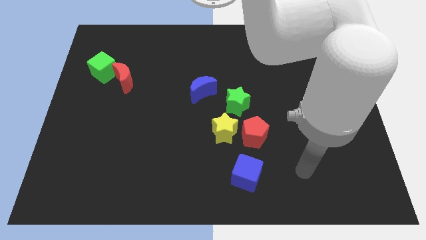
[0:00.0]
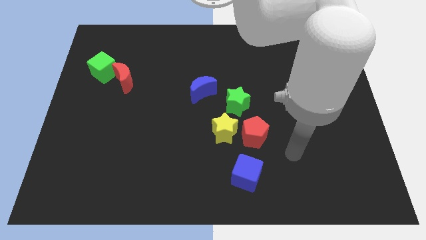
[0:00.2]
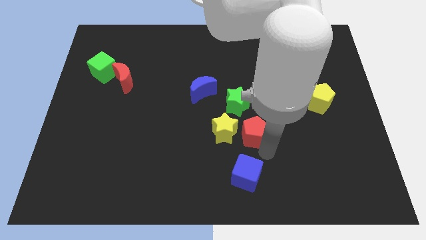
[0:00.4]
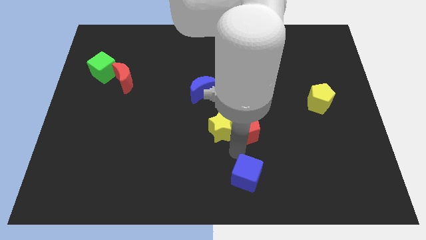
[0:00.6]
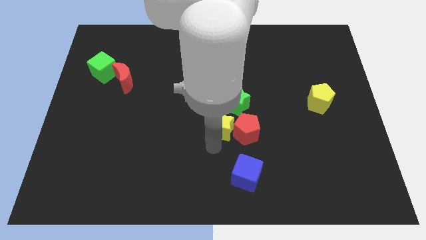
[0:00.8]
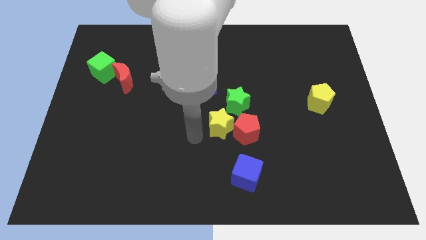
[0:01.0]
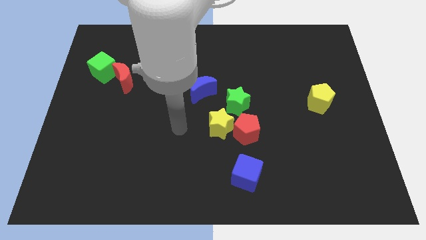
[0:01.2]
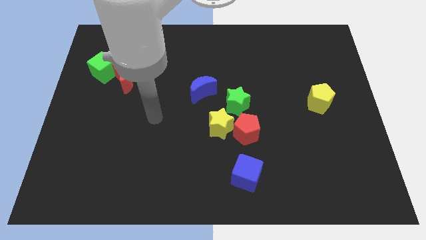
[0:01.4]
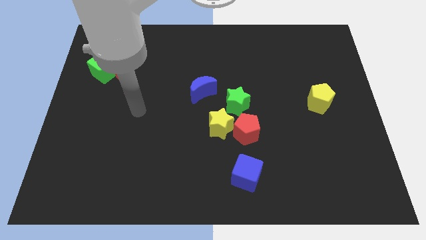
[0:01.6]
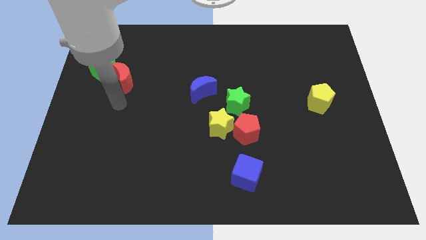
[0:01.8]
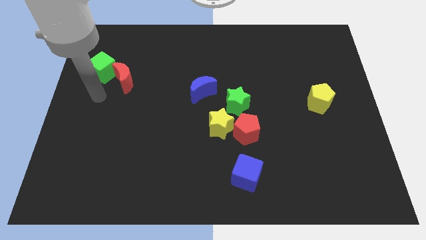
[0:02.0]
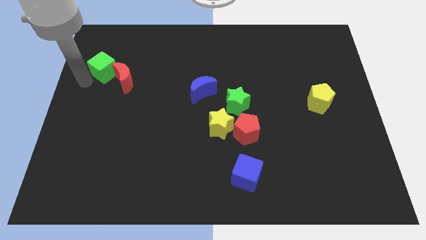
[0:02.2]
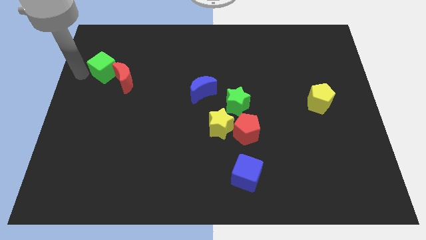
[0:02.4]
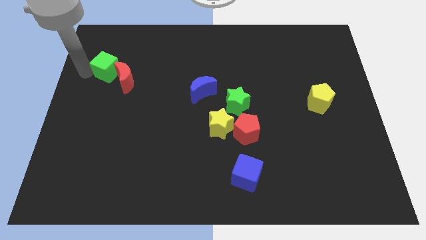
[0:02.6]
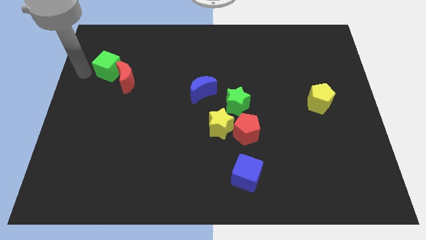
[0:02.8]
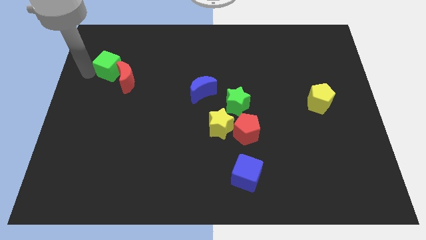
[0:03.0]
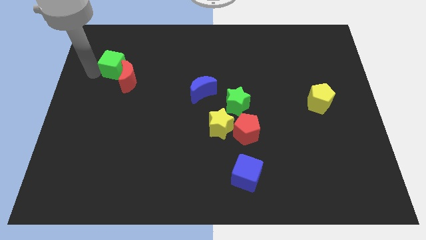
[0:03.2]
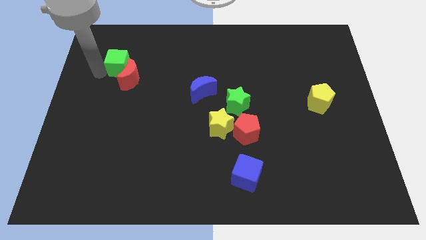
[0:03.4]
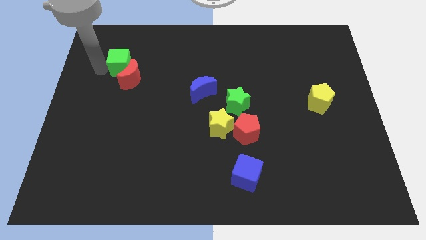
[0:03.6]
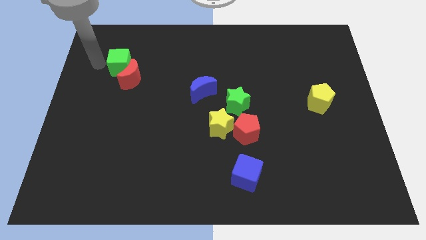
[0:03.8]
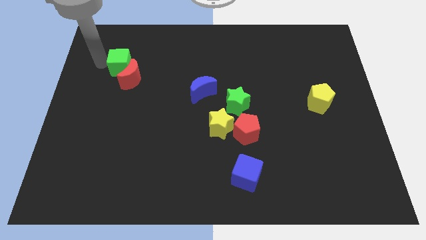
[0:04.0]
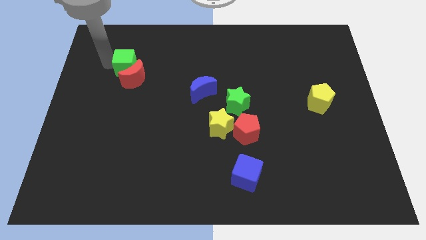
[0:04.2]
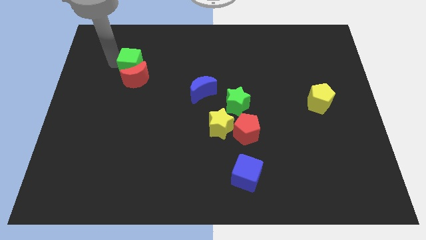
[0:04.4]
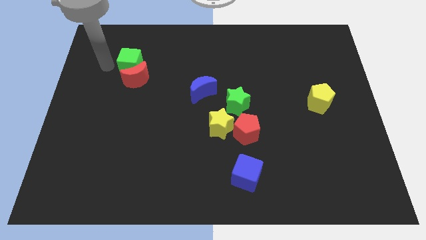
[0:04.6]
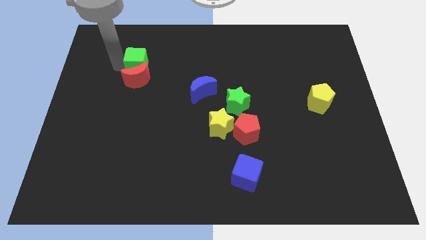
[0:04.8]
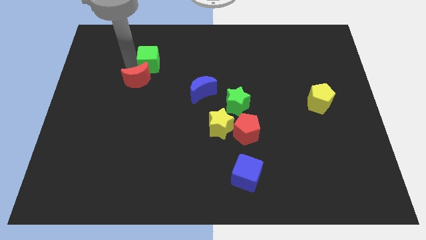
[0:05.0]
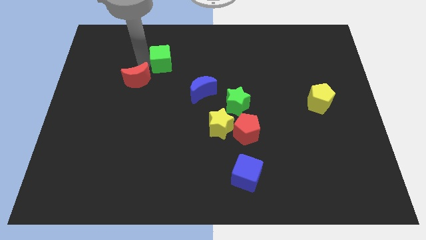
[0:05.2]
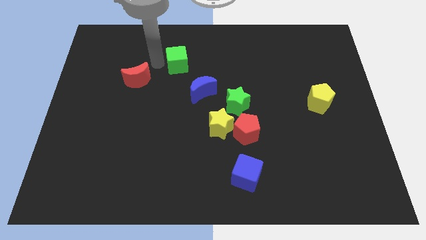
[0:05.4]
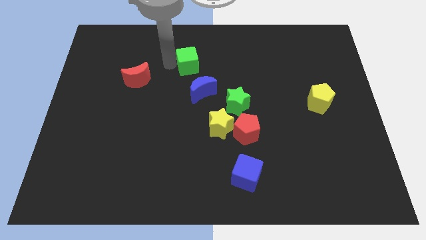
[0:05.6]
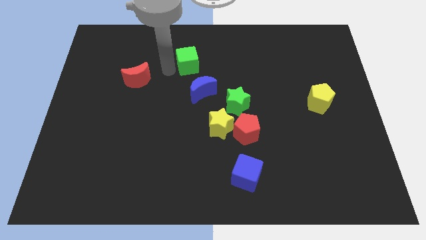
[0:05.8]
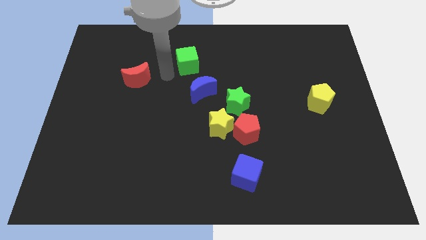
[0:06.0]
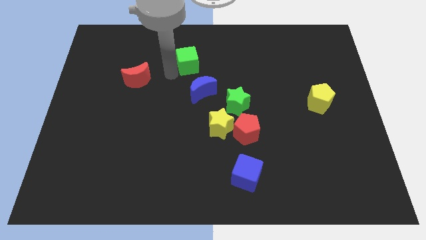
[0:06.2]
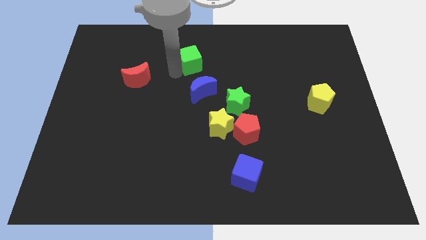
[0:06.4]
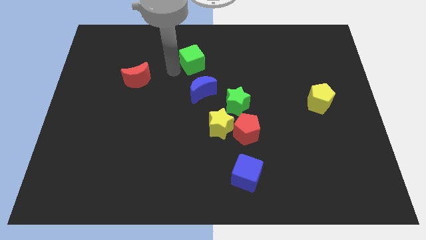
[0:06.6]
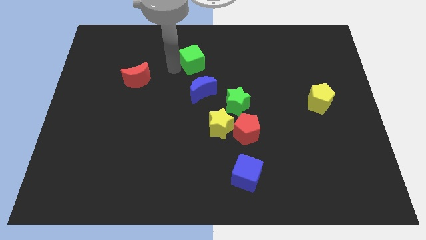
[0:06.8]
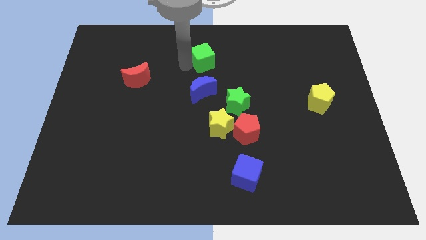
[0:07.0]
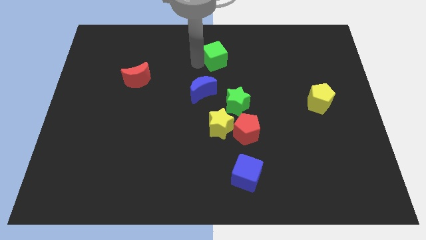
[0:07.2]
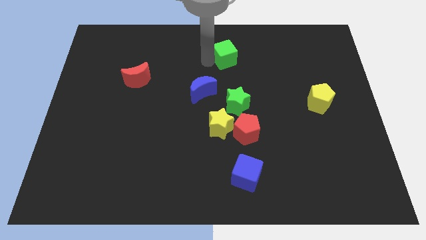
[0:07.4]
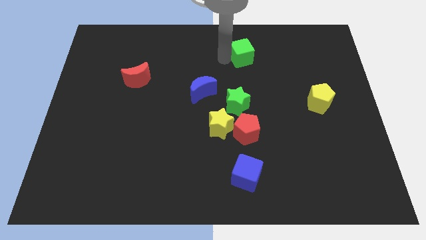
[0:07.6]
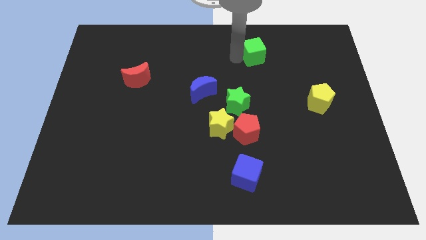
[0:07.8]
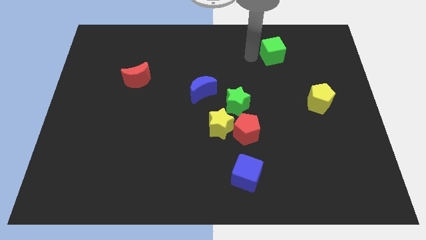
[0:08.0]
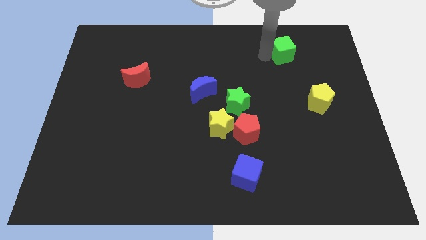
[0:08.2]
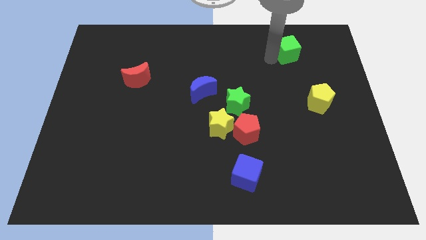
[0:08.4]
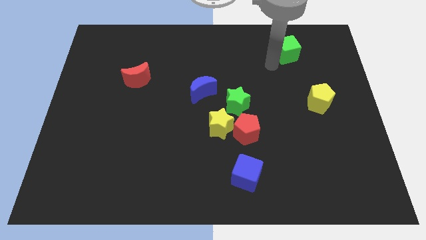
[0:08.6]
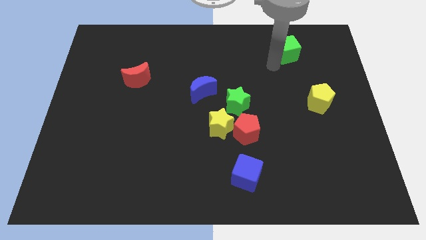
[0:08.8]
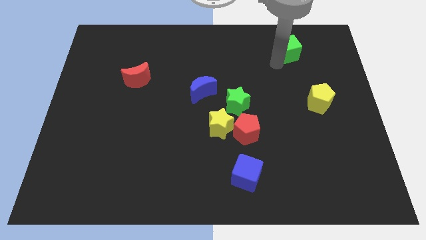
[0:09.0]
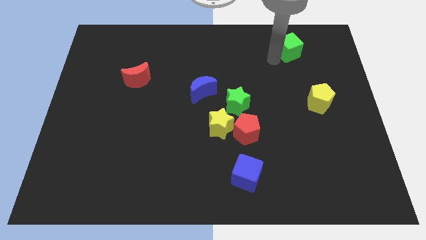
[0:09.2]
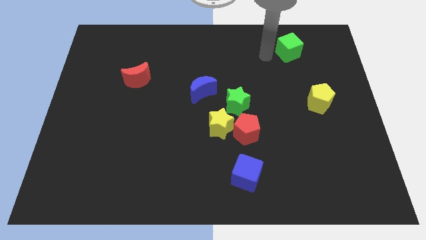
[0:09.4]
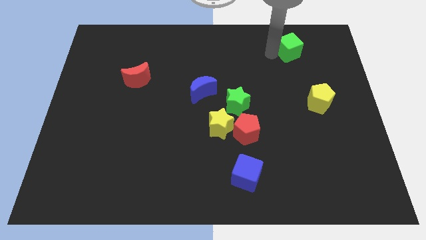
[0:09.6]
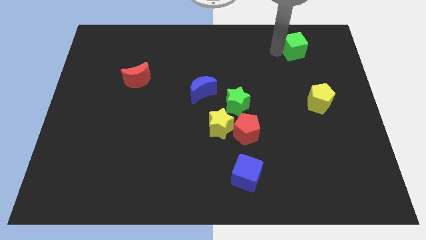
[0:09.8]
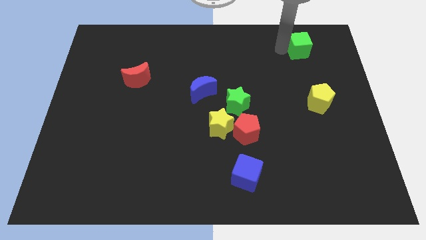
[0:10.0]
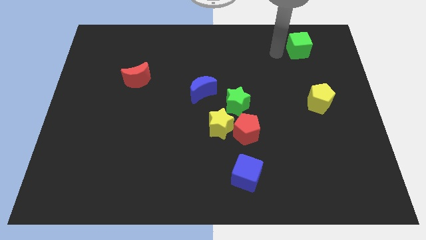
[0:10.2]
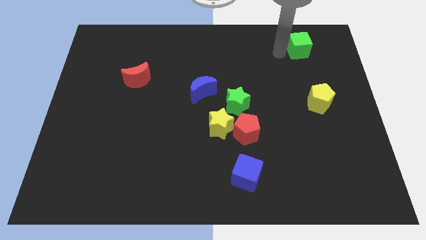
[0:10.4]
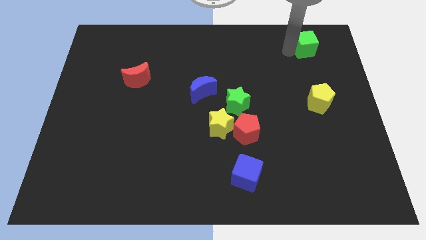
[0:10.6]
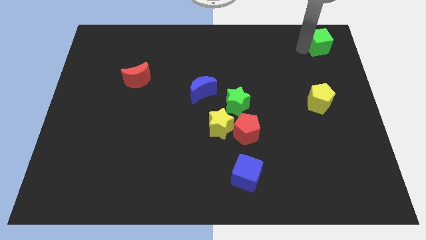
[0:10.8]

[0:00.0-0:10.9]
put the green cube to the top right corner

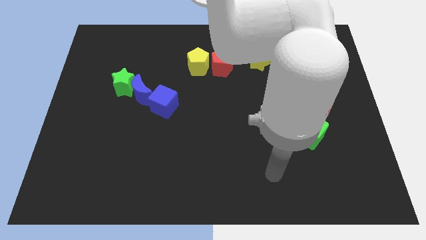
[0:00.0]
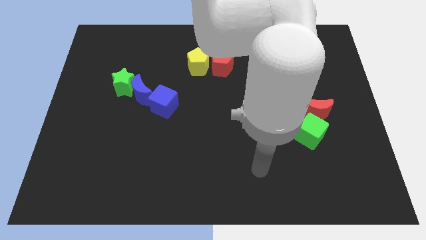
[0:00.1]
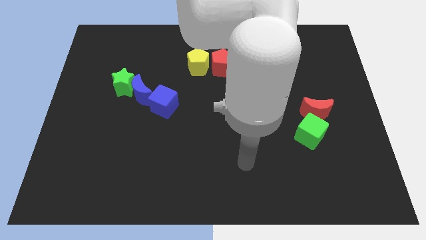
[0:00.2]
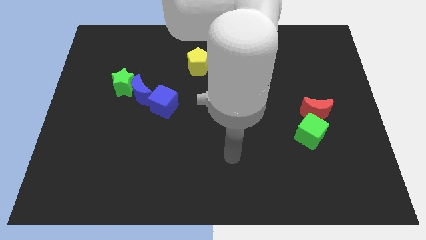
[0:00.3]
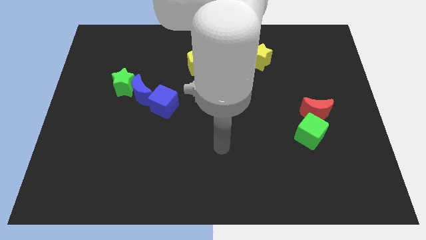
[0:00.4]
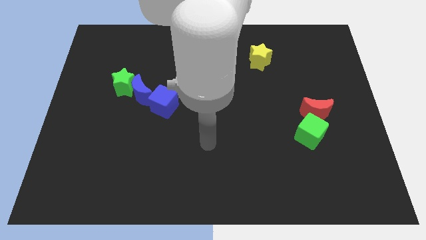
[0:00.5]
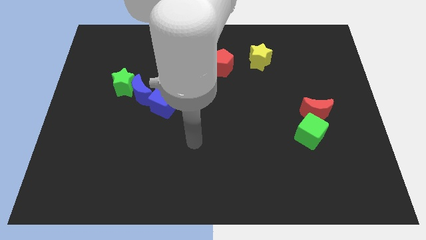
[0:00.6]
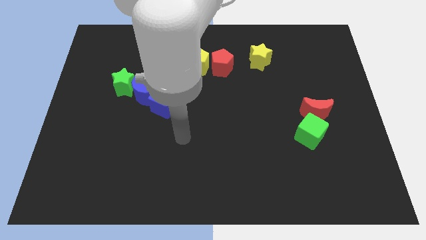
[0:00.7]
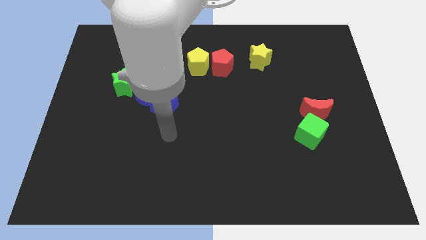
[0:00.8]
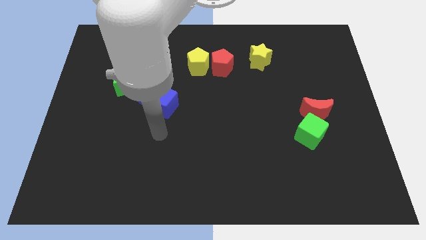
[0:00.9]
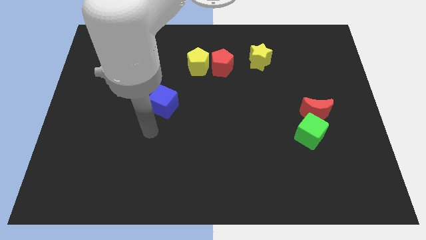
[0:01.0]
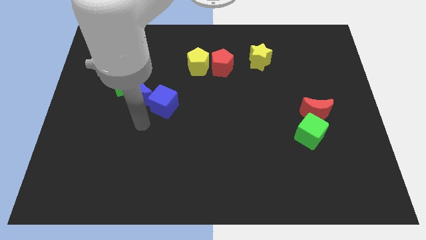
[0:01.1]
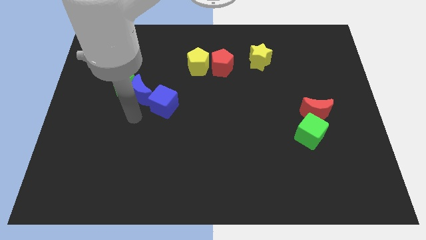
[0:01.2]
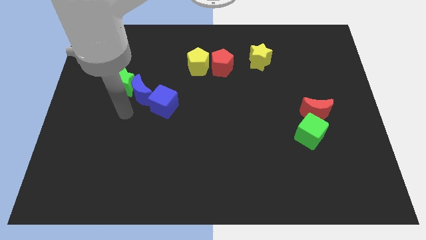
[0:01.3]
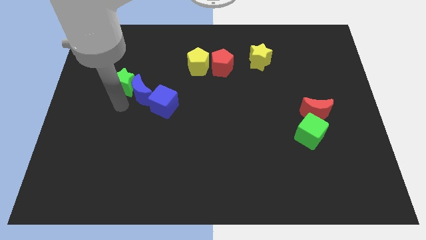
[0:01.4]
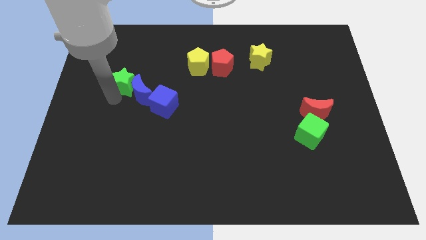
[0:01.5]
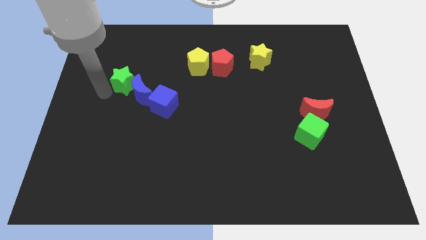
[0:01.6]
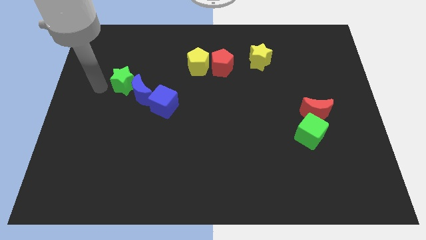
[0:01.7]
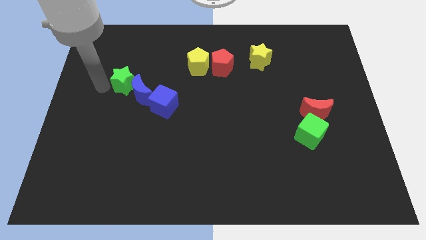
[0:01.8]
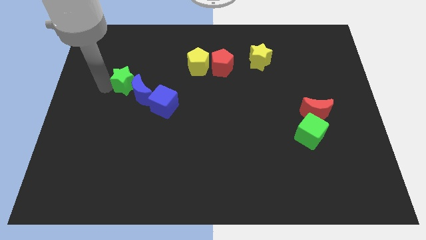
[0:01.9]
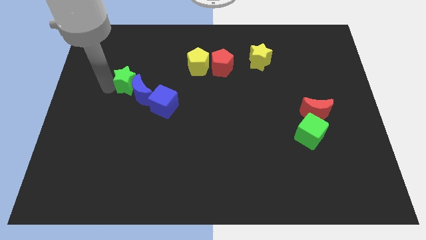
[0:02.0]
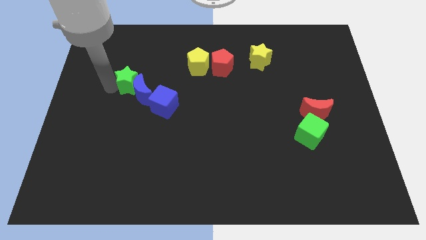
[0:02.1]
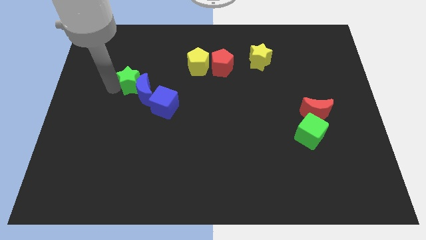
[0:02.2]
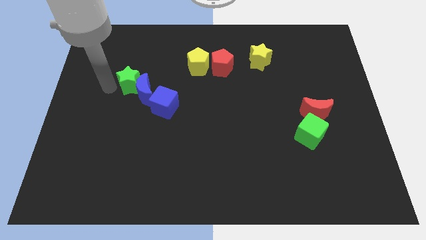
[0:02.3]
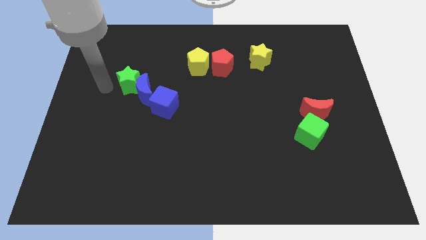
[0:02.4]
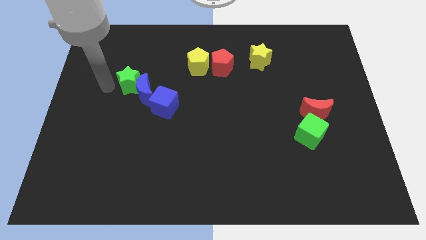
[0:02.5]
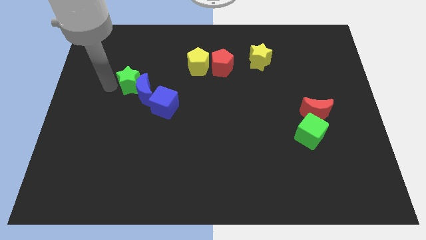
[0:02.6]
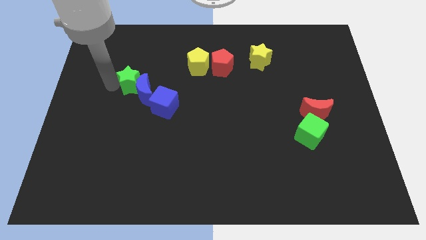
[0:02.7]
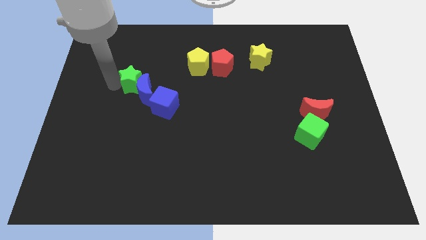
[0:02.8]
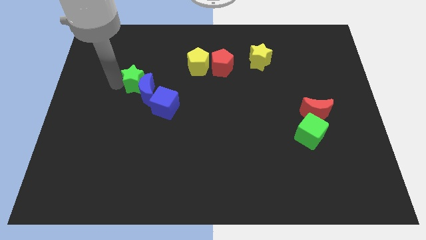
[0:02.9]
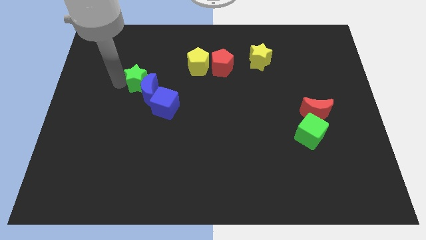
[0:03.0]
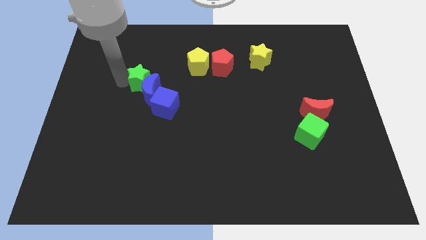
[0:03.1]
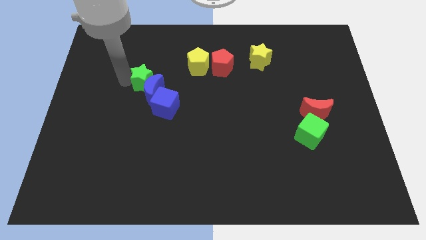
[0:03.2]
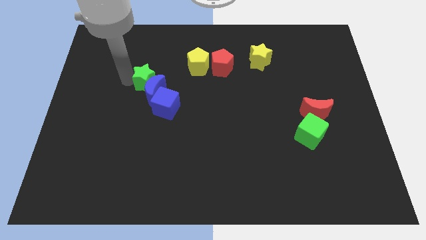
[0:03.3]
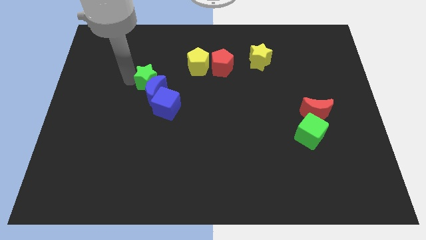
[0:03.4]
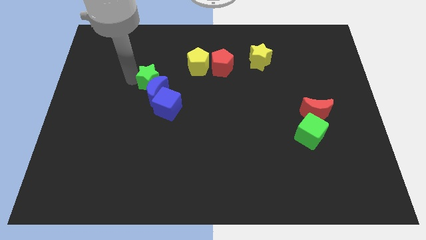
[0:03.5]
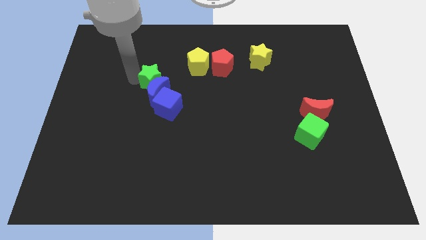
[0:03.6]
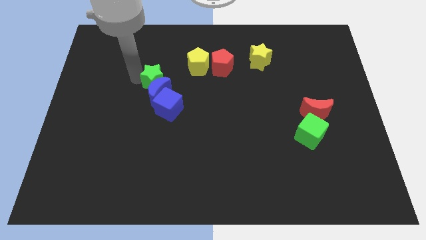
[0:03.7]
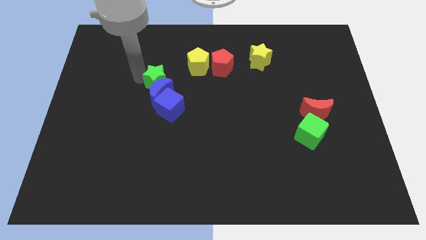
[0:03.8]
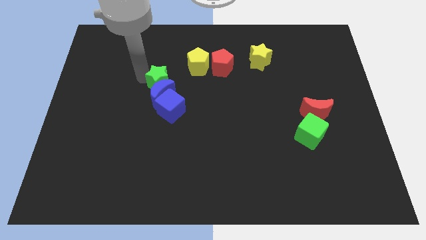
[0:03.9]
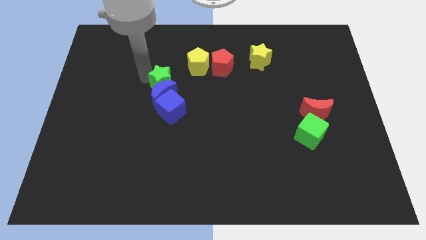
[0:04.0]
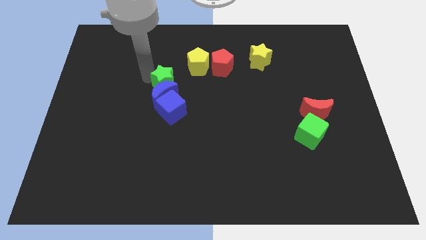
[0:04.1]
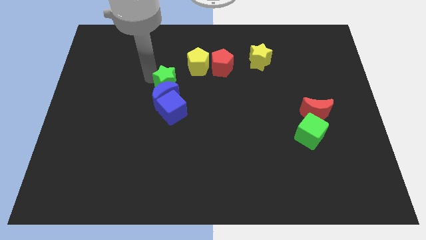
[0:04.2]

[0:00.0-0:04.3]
push the green star to the middle
